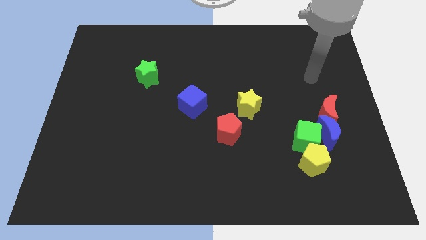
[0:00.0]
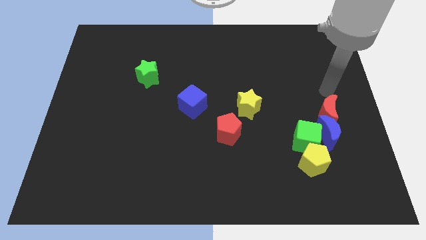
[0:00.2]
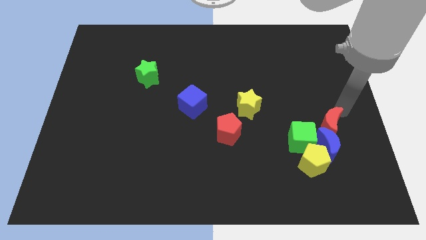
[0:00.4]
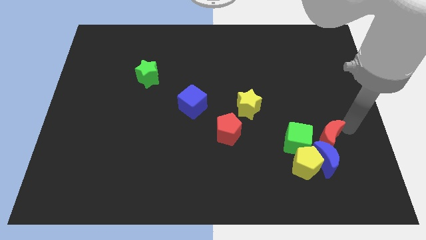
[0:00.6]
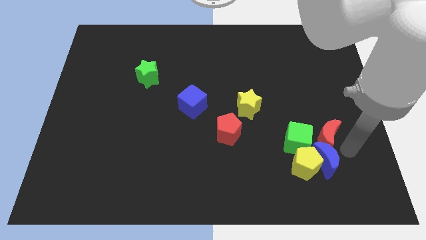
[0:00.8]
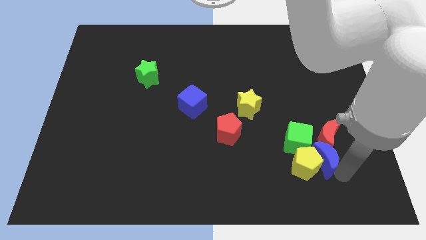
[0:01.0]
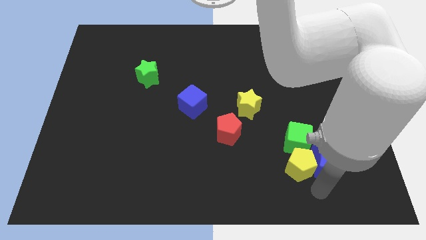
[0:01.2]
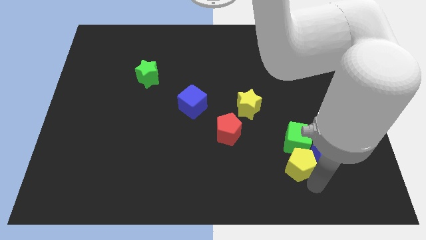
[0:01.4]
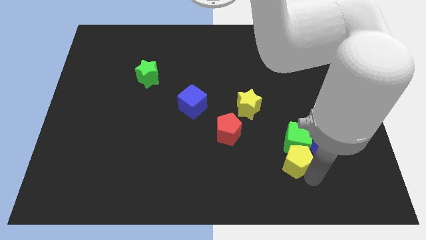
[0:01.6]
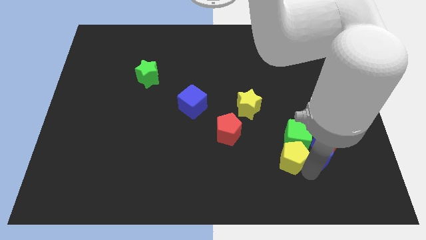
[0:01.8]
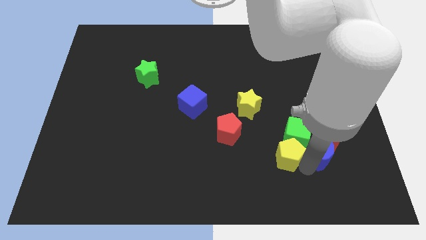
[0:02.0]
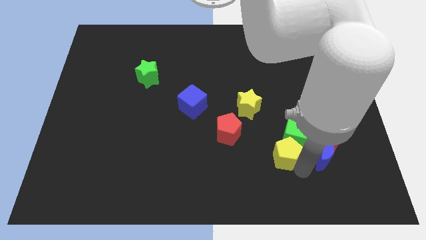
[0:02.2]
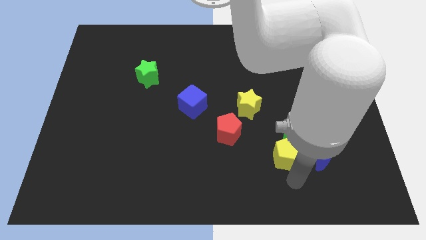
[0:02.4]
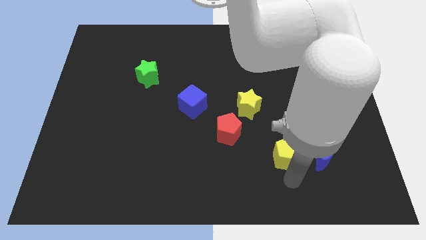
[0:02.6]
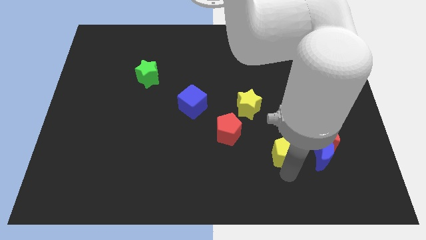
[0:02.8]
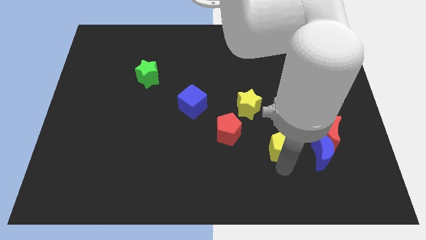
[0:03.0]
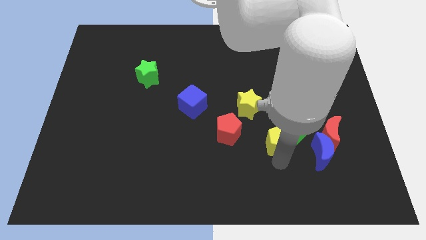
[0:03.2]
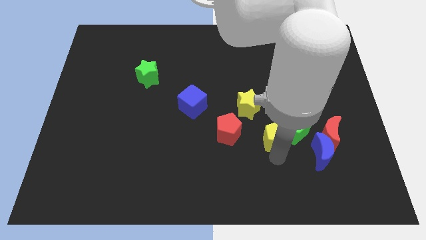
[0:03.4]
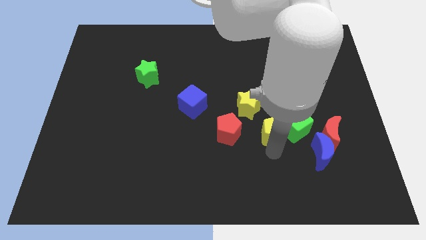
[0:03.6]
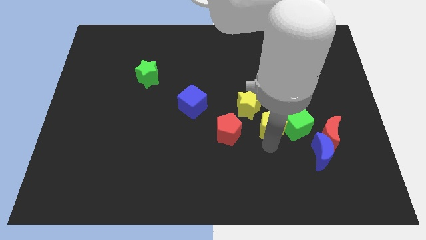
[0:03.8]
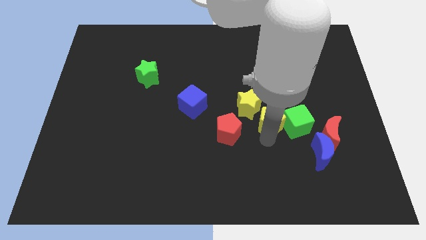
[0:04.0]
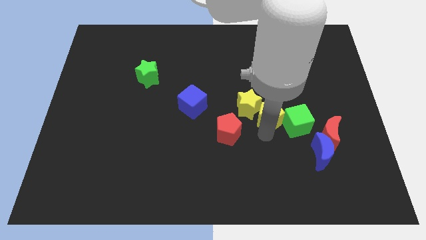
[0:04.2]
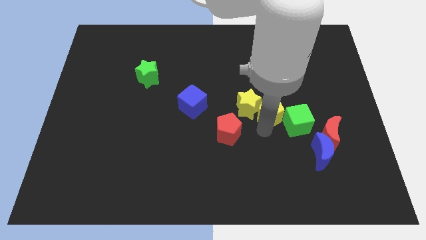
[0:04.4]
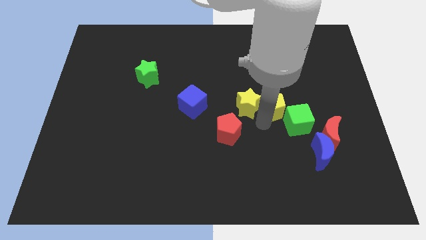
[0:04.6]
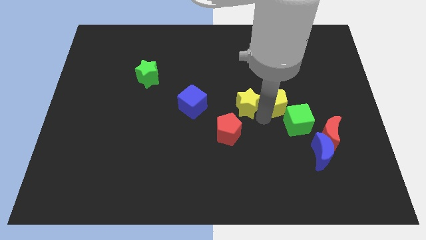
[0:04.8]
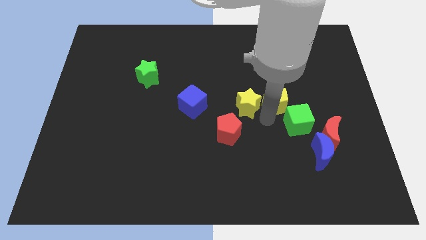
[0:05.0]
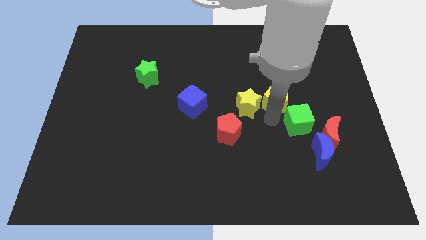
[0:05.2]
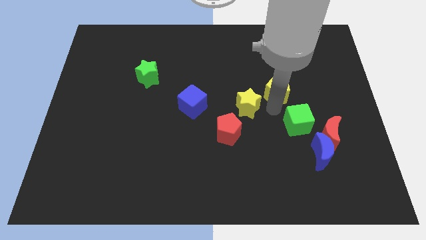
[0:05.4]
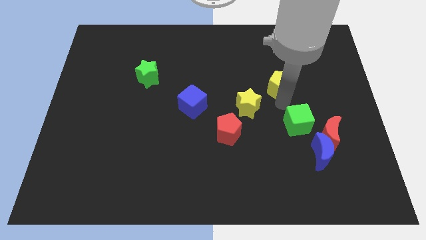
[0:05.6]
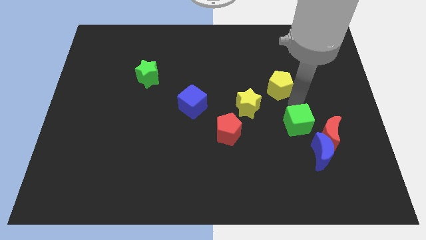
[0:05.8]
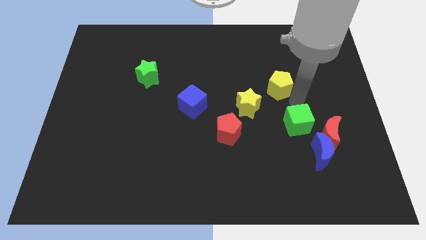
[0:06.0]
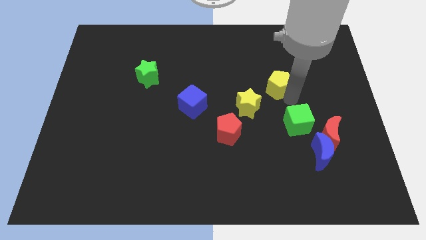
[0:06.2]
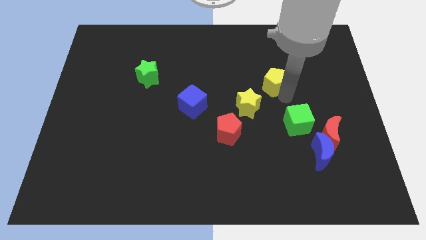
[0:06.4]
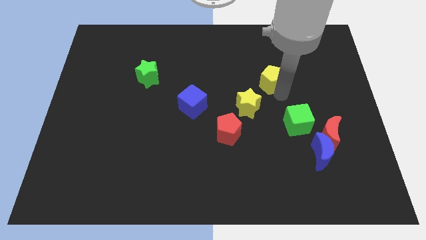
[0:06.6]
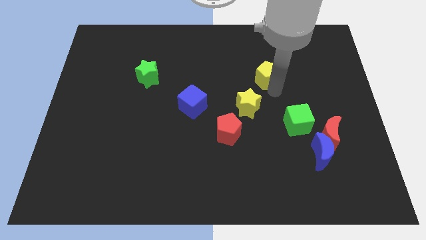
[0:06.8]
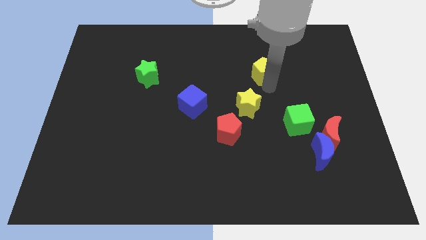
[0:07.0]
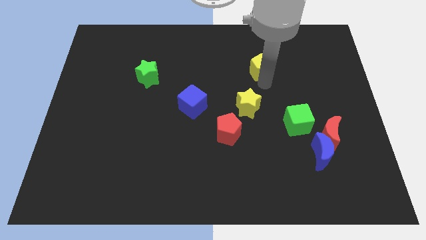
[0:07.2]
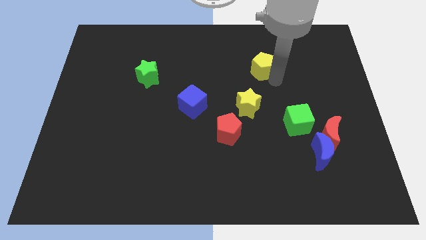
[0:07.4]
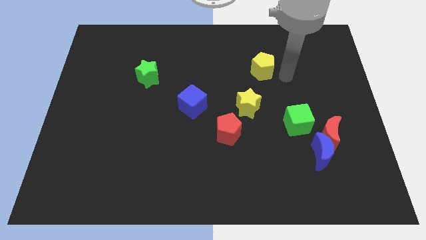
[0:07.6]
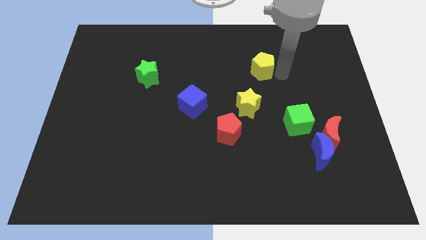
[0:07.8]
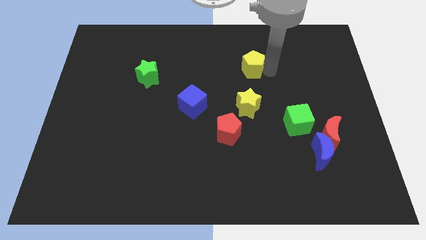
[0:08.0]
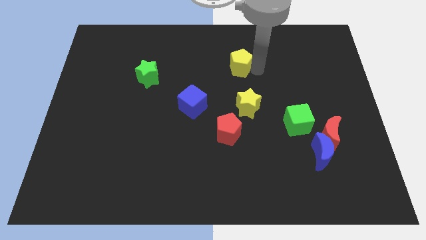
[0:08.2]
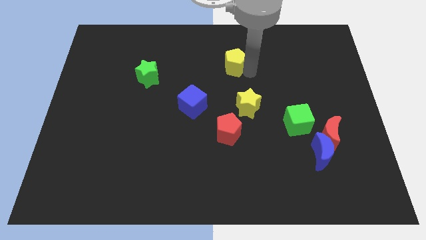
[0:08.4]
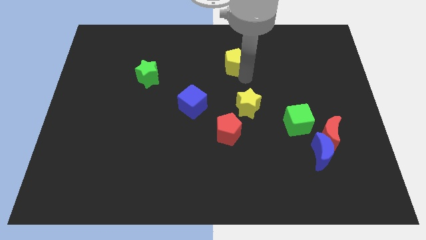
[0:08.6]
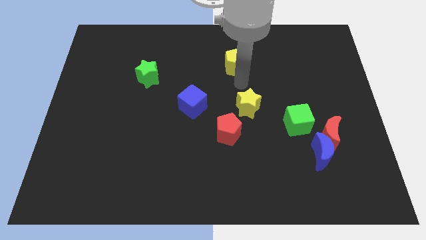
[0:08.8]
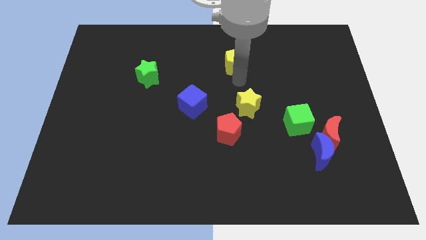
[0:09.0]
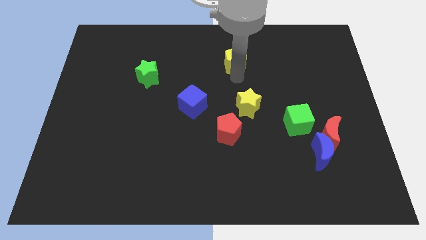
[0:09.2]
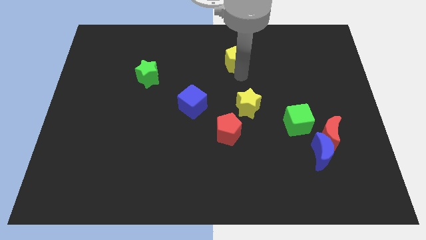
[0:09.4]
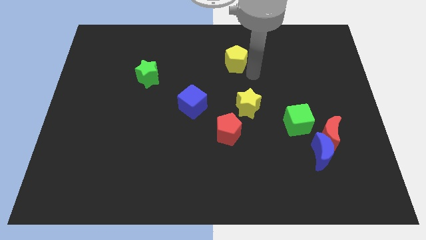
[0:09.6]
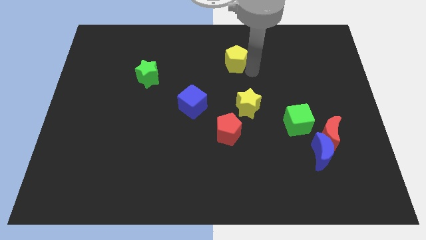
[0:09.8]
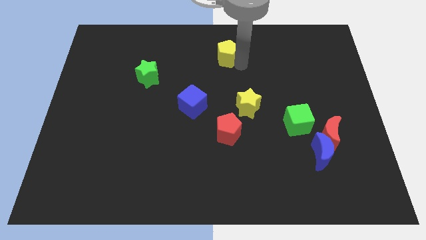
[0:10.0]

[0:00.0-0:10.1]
slide the yellow pentagon to the towards your base
